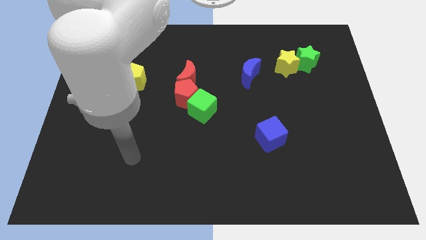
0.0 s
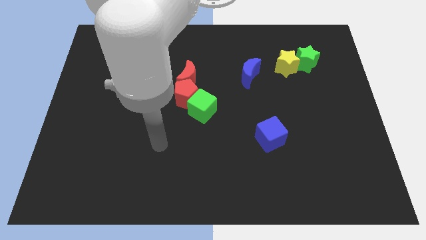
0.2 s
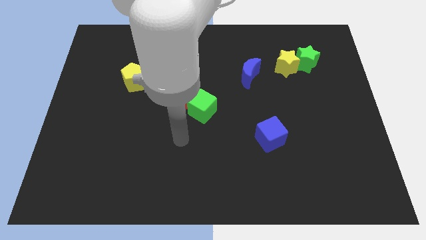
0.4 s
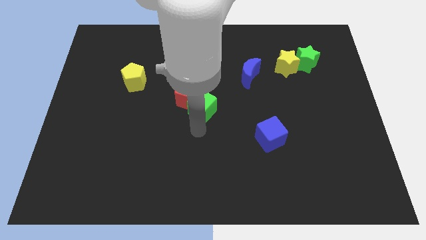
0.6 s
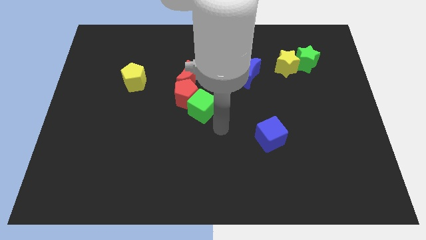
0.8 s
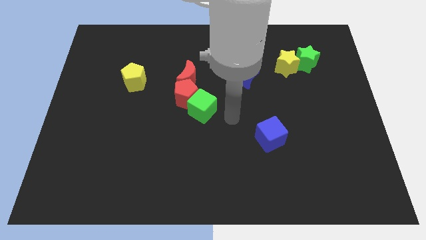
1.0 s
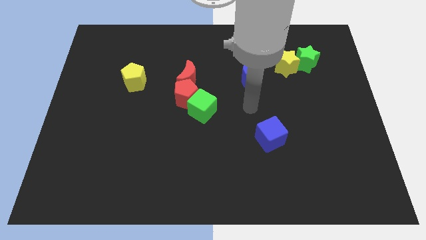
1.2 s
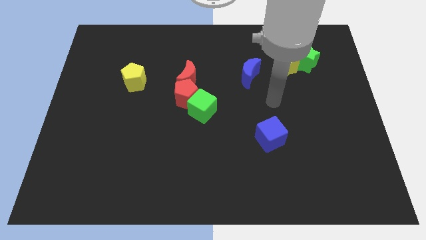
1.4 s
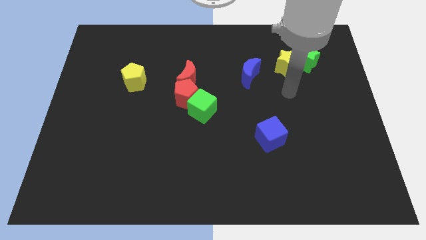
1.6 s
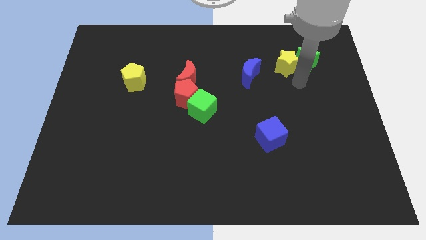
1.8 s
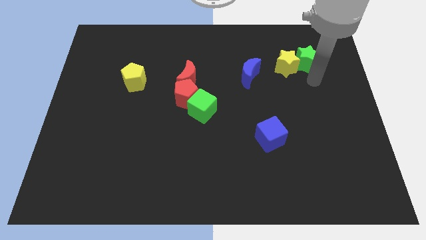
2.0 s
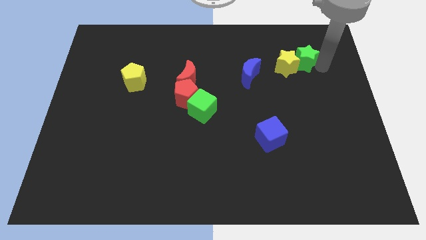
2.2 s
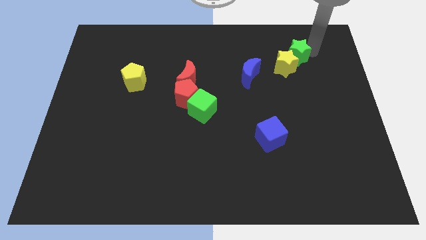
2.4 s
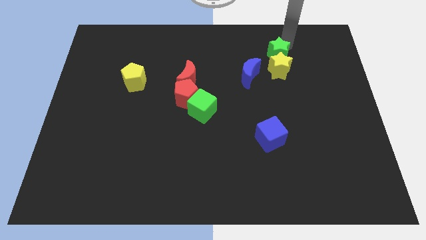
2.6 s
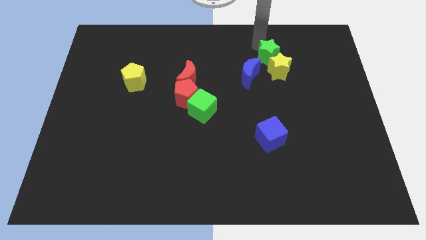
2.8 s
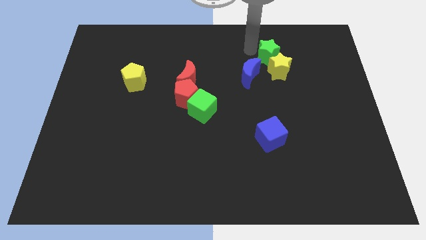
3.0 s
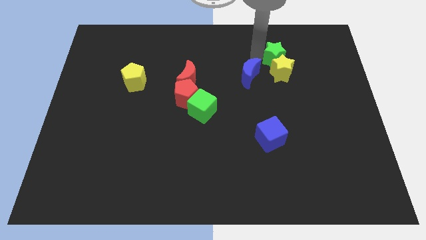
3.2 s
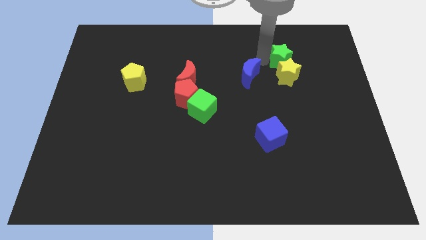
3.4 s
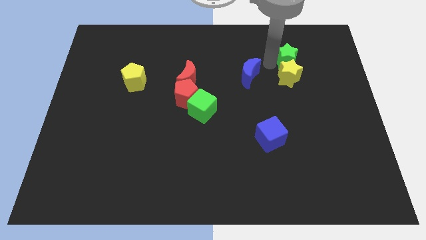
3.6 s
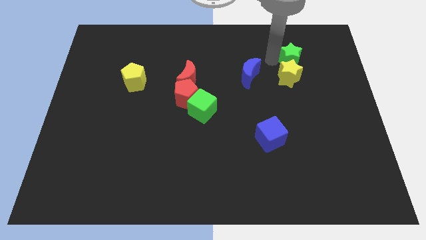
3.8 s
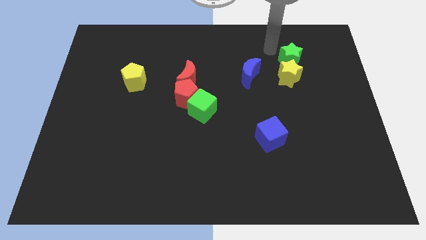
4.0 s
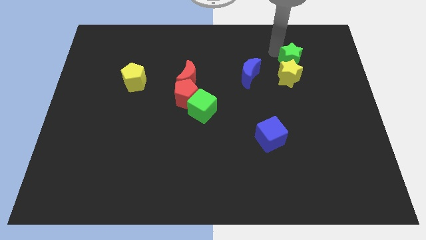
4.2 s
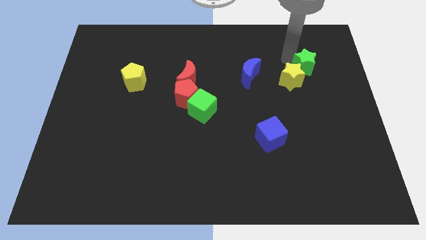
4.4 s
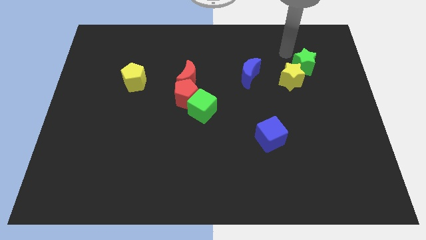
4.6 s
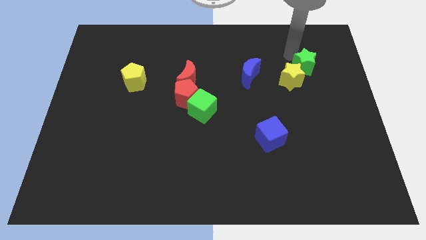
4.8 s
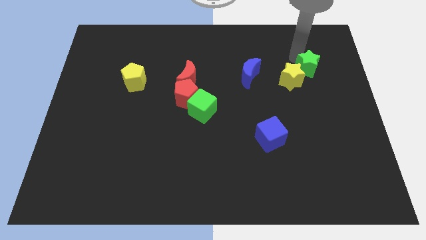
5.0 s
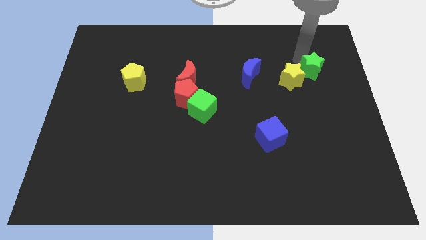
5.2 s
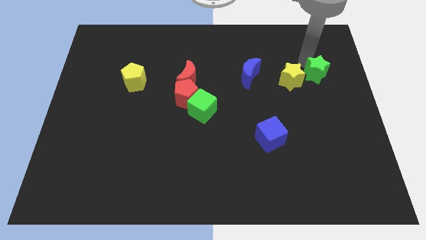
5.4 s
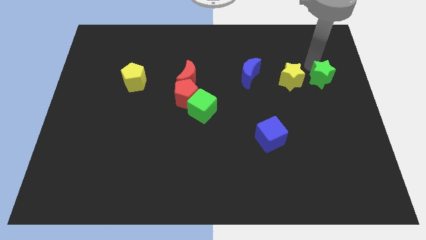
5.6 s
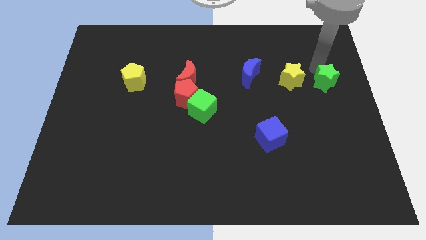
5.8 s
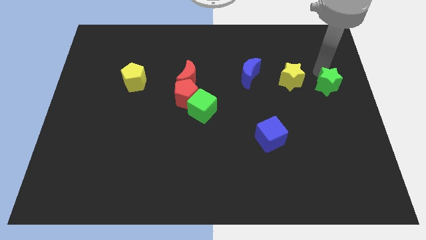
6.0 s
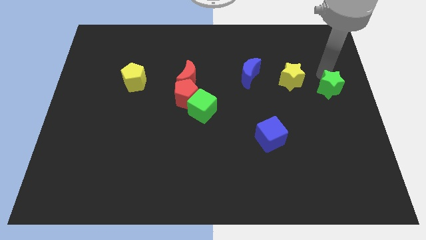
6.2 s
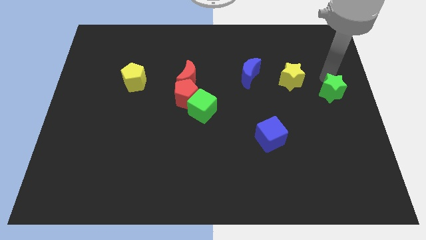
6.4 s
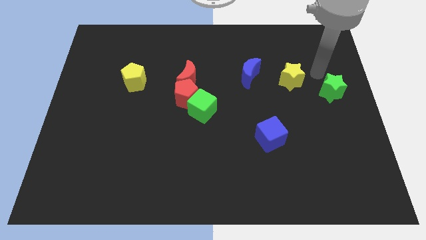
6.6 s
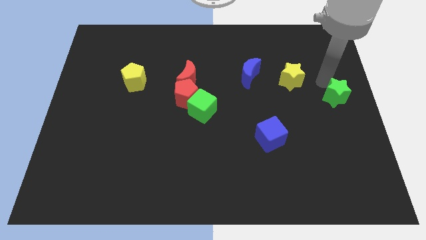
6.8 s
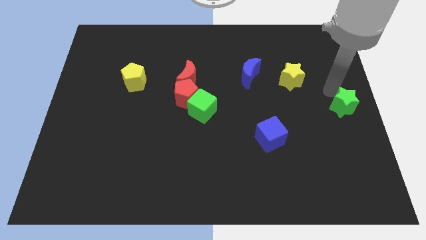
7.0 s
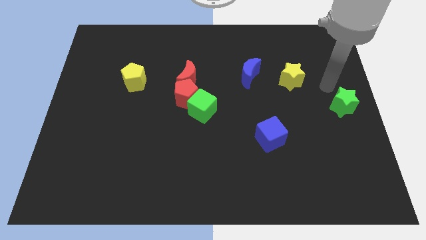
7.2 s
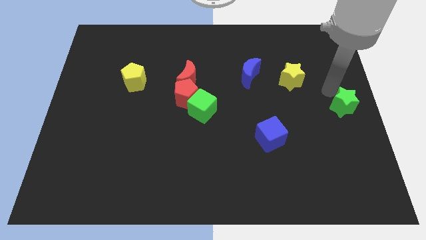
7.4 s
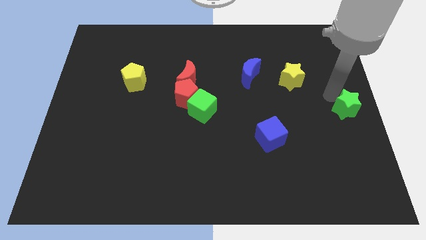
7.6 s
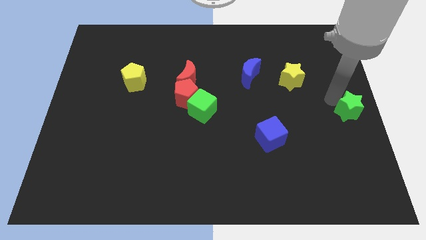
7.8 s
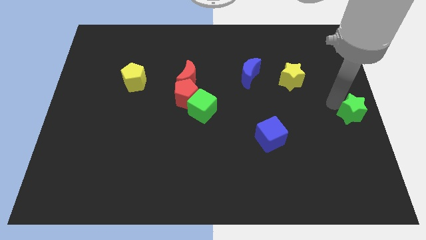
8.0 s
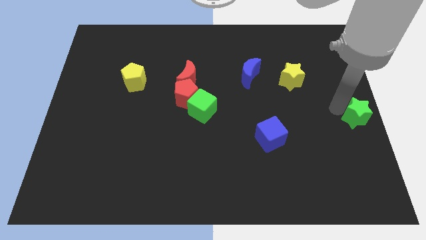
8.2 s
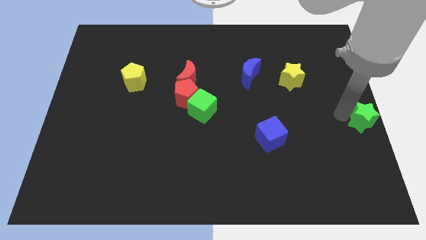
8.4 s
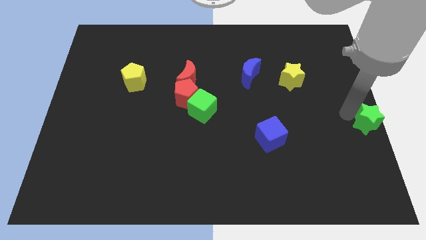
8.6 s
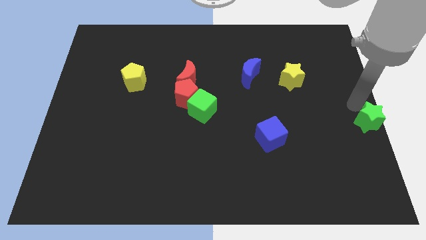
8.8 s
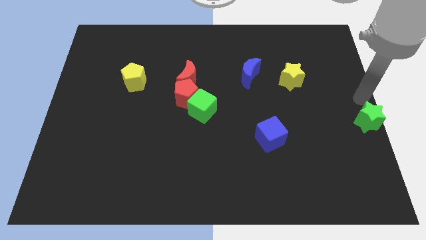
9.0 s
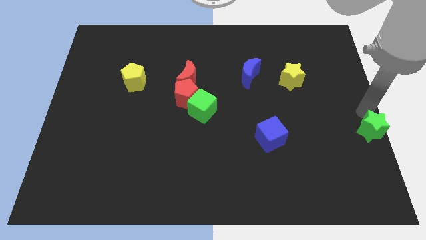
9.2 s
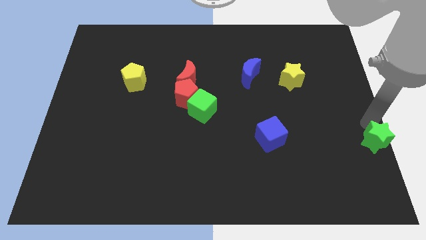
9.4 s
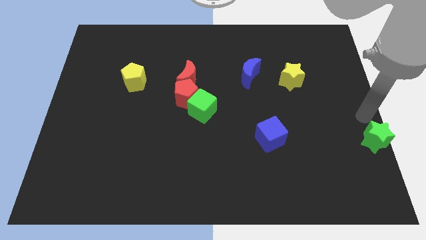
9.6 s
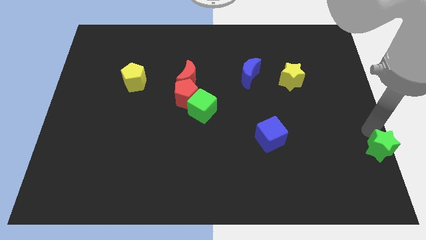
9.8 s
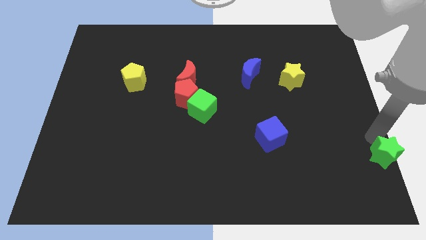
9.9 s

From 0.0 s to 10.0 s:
slide the green star to the bottom right corner

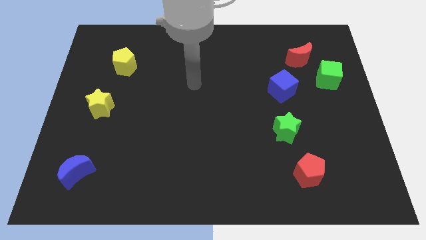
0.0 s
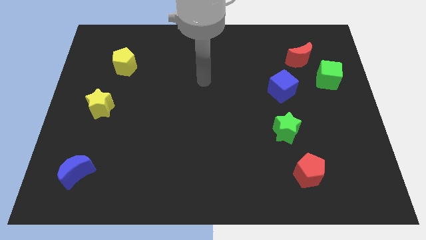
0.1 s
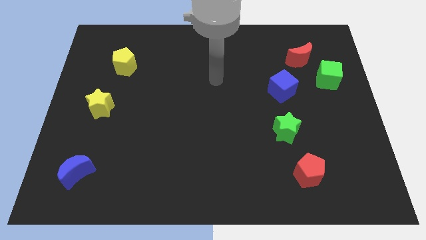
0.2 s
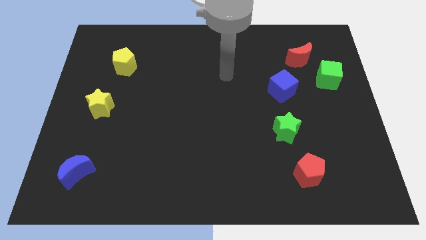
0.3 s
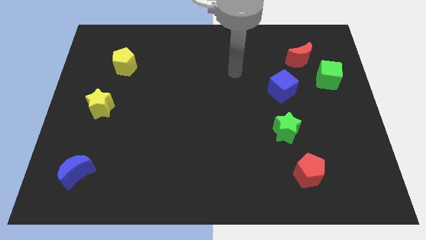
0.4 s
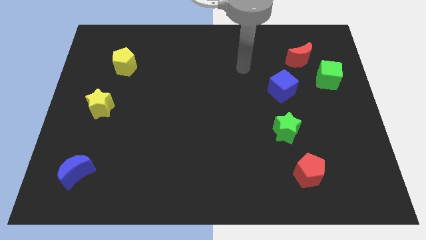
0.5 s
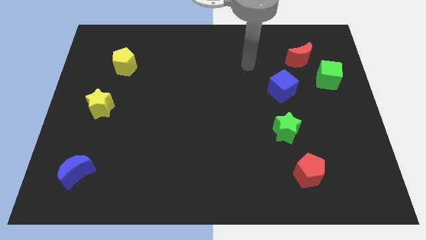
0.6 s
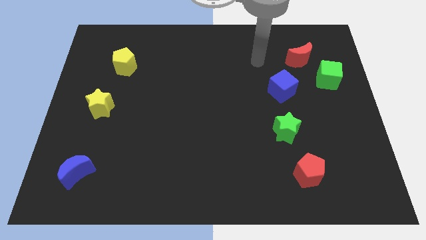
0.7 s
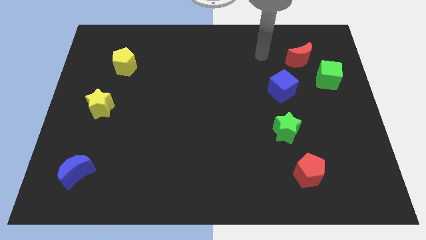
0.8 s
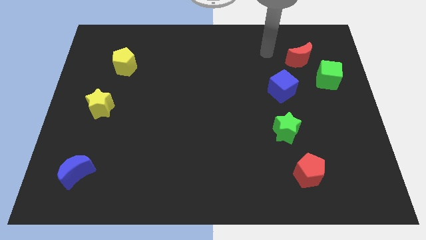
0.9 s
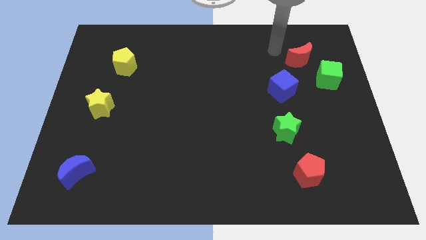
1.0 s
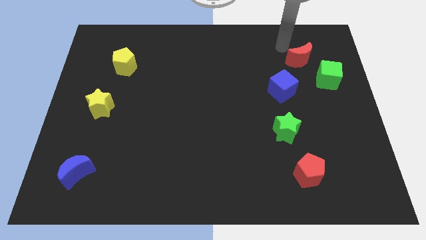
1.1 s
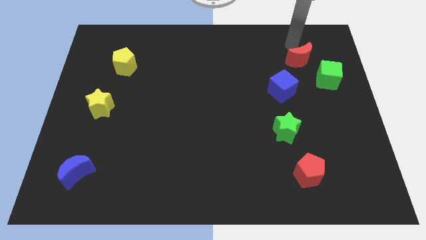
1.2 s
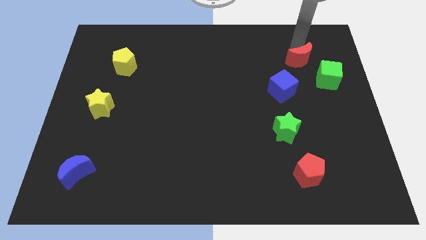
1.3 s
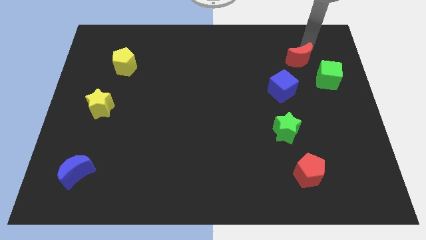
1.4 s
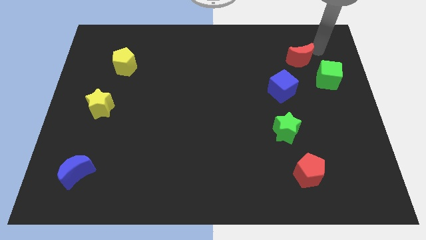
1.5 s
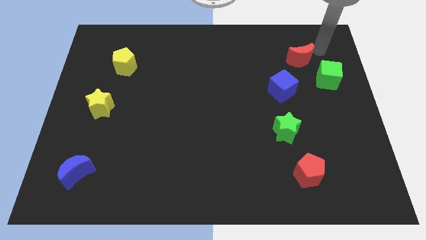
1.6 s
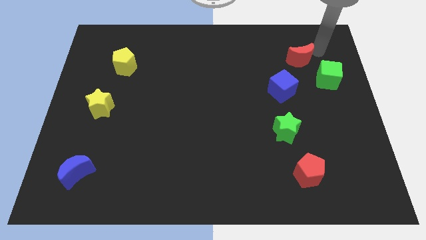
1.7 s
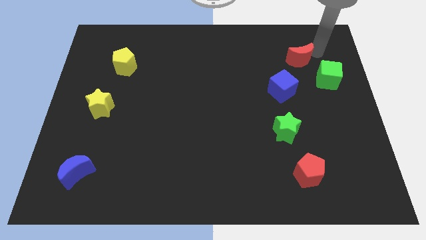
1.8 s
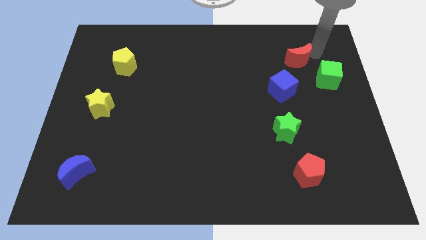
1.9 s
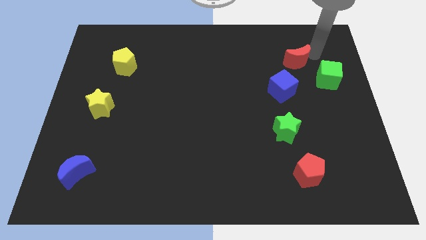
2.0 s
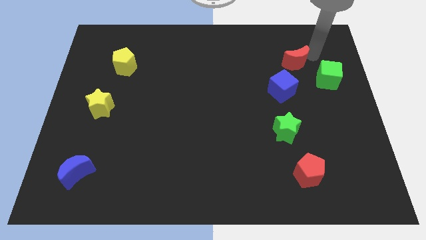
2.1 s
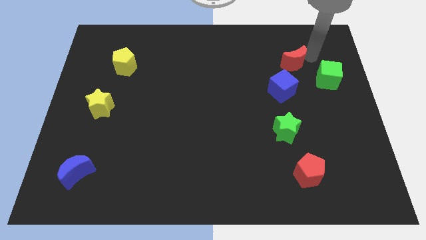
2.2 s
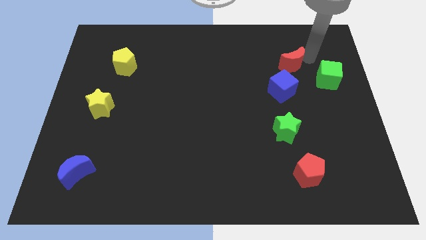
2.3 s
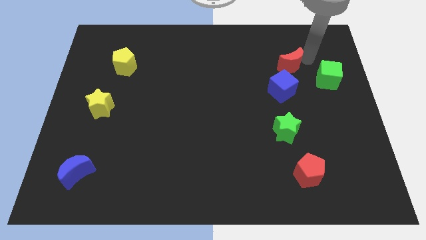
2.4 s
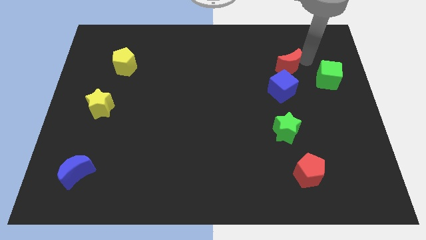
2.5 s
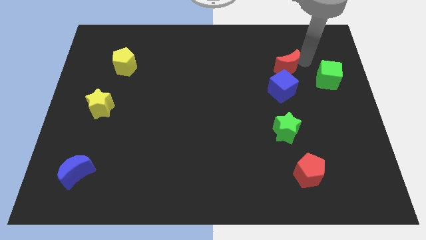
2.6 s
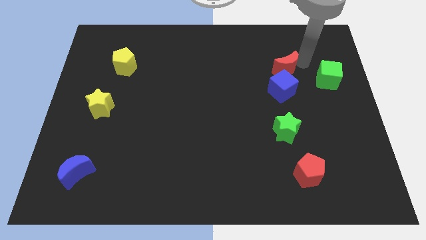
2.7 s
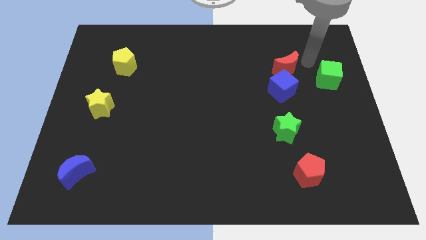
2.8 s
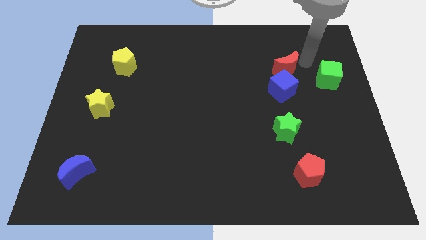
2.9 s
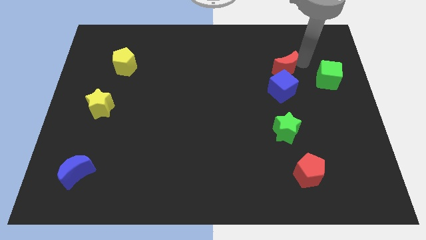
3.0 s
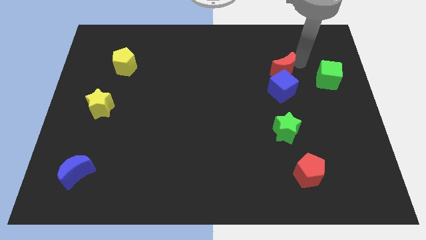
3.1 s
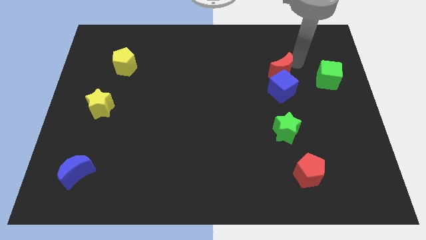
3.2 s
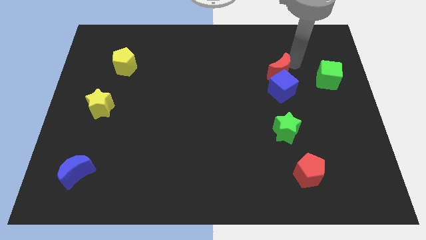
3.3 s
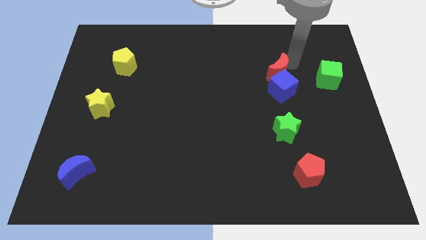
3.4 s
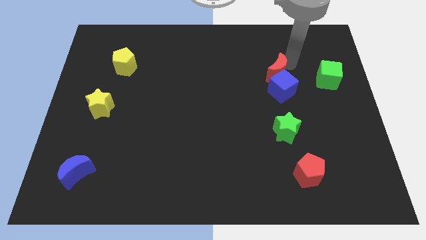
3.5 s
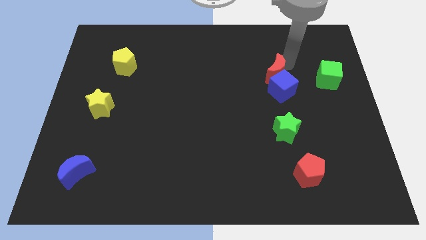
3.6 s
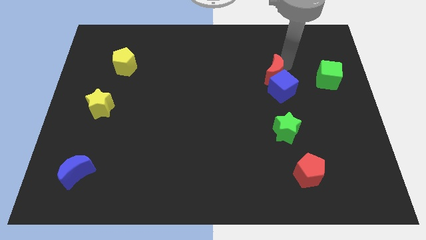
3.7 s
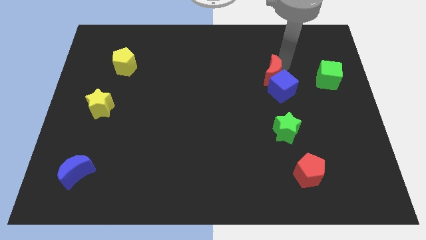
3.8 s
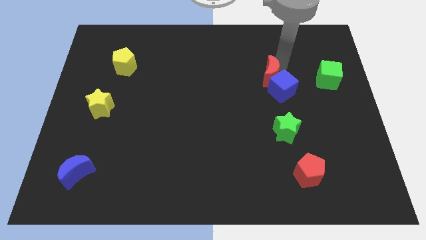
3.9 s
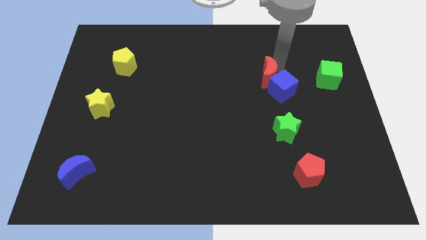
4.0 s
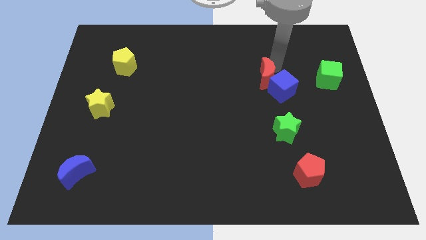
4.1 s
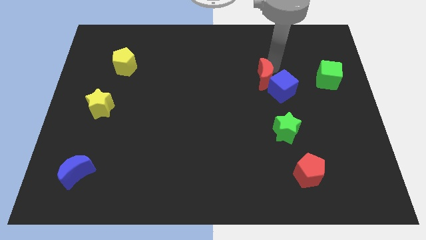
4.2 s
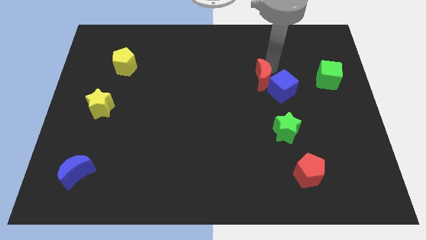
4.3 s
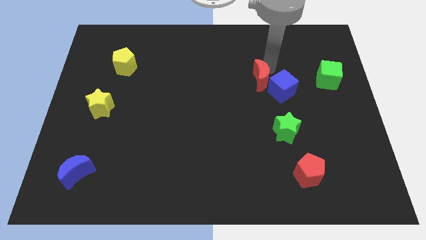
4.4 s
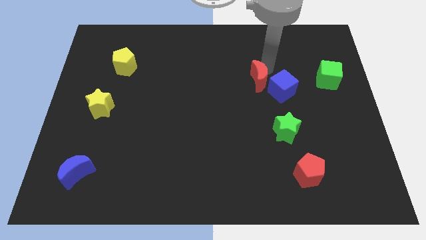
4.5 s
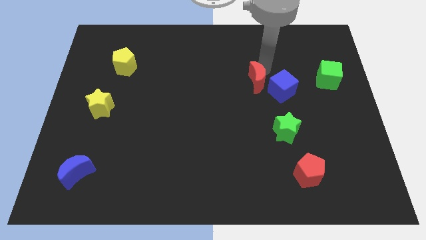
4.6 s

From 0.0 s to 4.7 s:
slide the red moon to the middle
